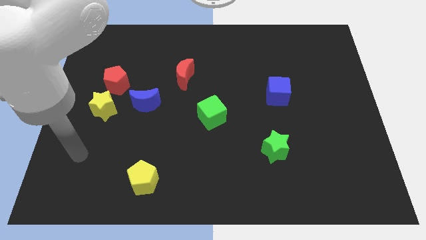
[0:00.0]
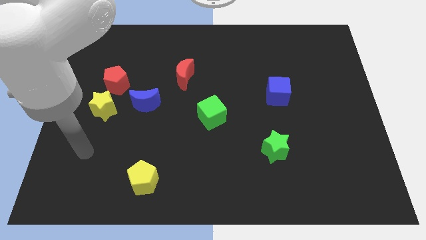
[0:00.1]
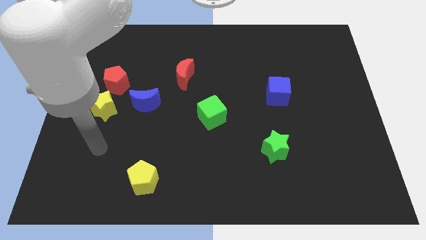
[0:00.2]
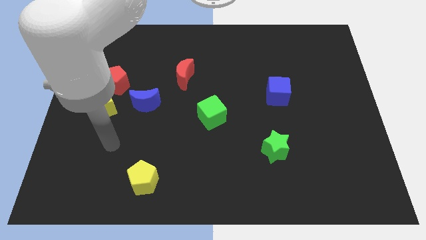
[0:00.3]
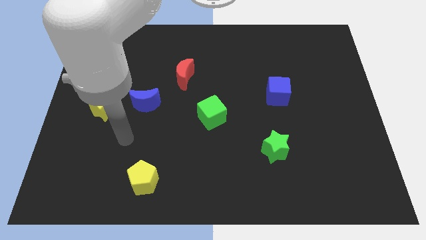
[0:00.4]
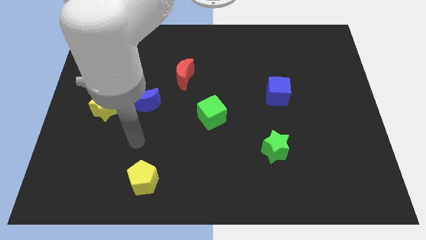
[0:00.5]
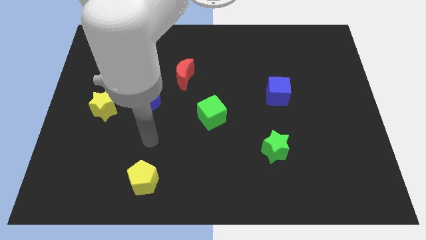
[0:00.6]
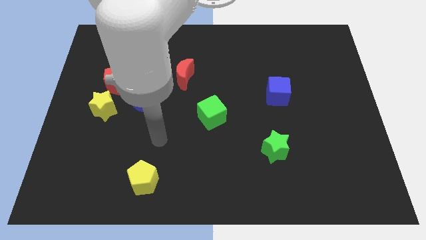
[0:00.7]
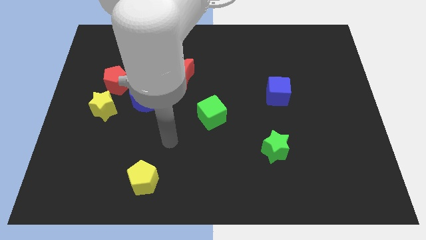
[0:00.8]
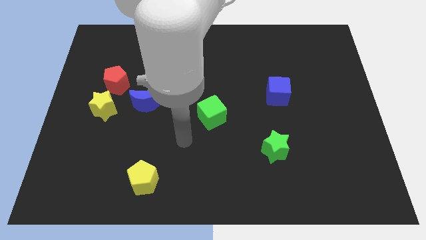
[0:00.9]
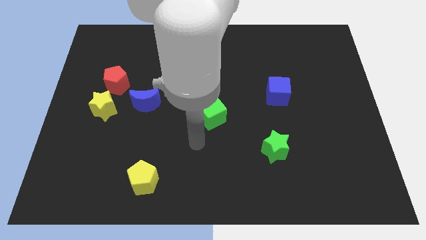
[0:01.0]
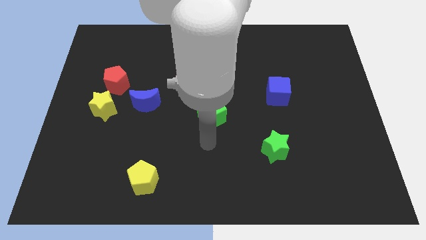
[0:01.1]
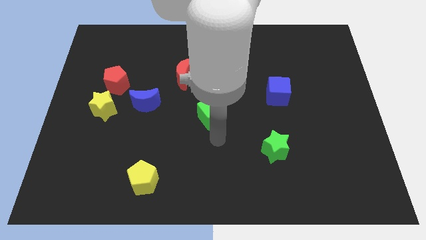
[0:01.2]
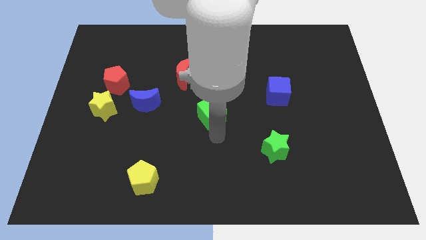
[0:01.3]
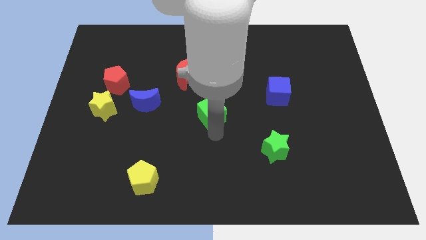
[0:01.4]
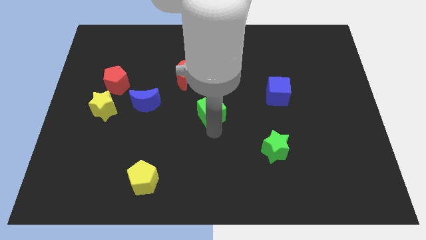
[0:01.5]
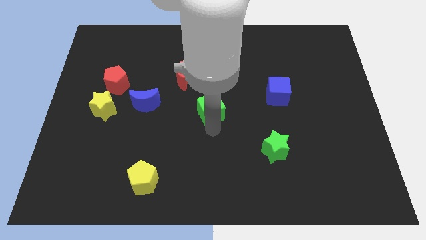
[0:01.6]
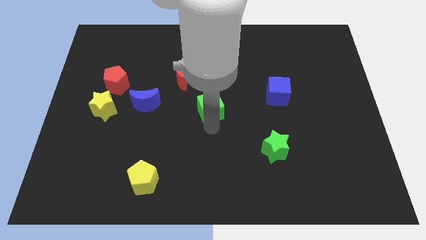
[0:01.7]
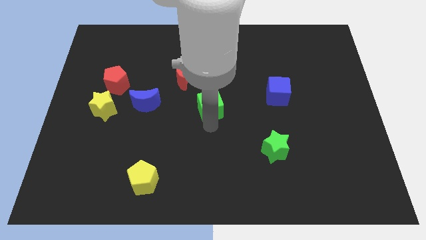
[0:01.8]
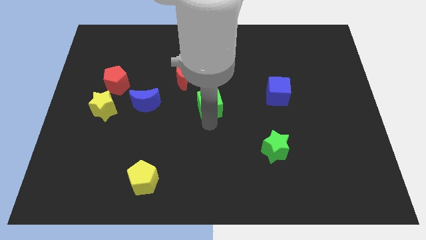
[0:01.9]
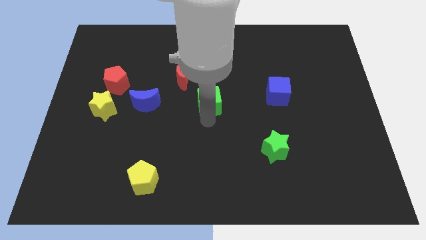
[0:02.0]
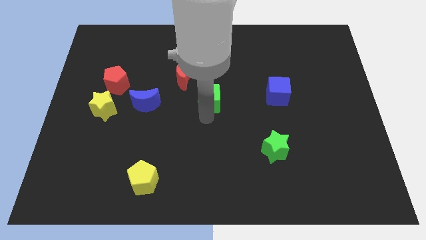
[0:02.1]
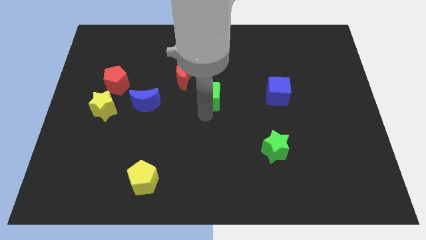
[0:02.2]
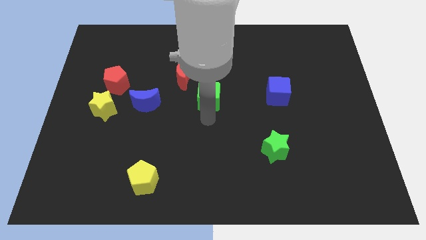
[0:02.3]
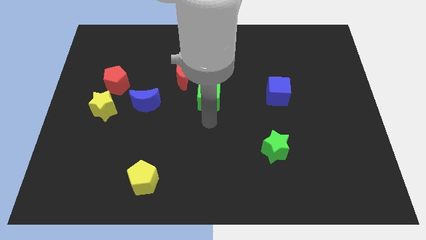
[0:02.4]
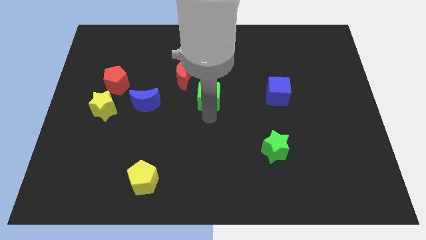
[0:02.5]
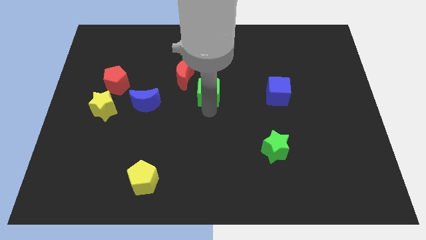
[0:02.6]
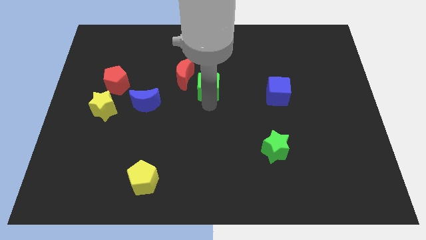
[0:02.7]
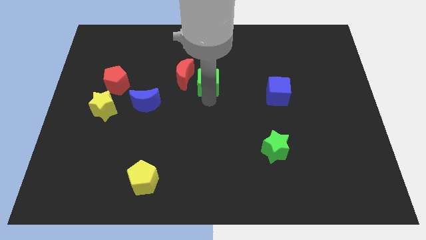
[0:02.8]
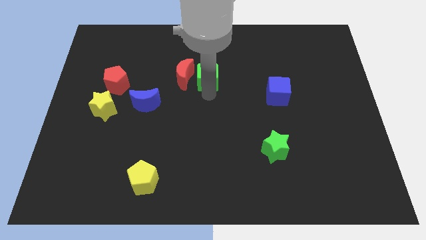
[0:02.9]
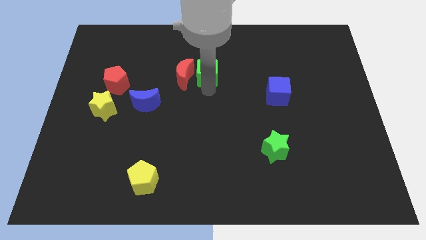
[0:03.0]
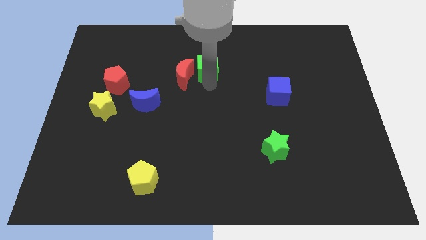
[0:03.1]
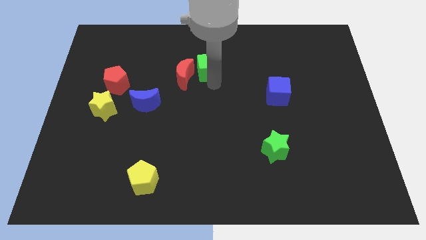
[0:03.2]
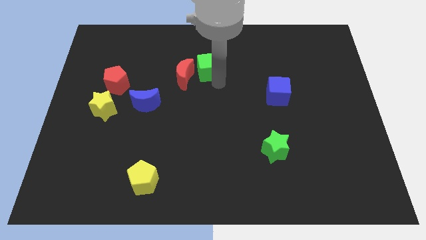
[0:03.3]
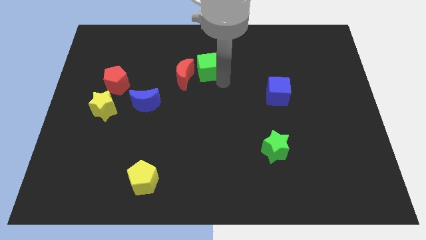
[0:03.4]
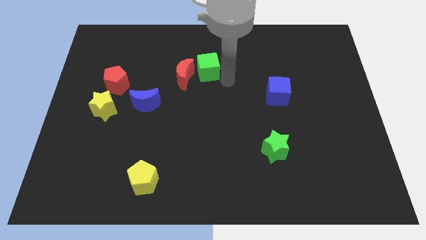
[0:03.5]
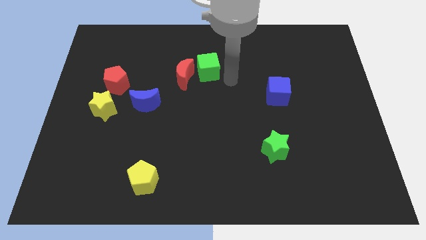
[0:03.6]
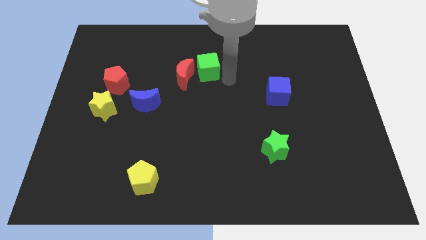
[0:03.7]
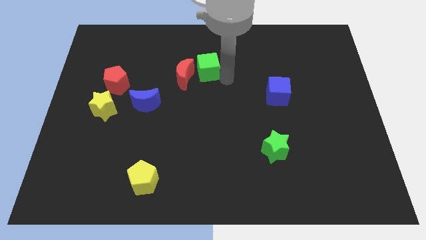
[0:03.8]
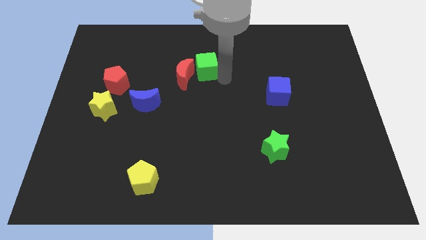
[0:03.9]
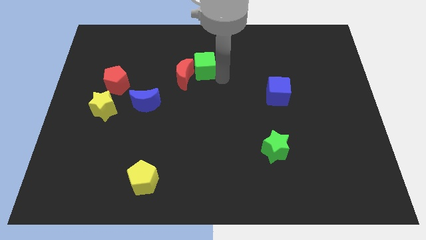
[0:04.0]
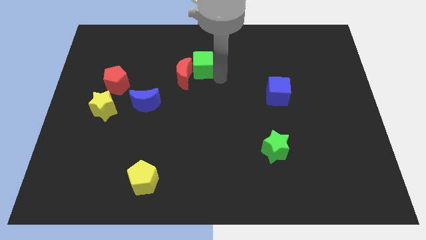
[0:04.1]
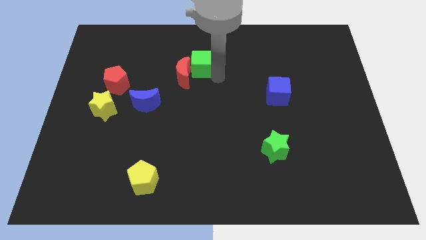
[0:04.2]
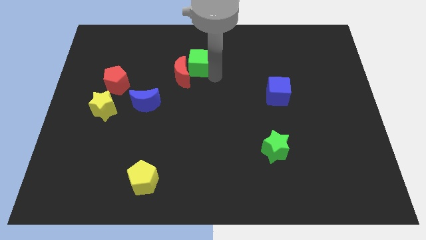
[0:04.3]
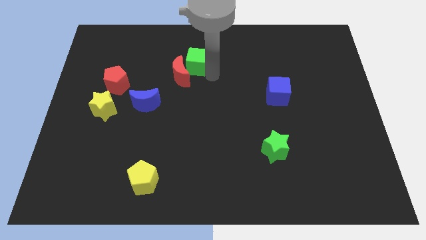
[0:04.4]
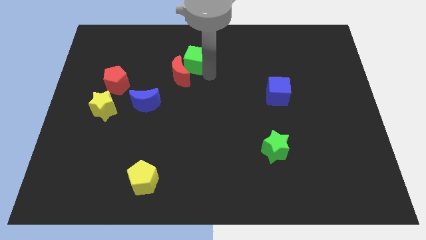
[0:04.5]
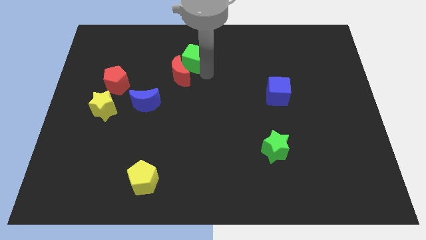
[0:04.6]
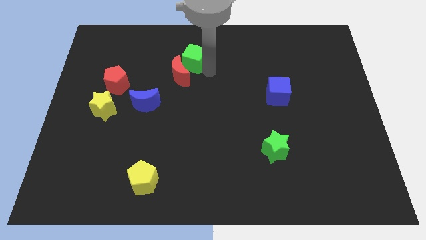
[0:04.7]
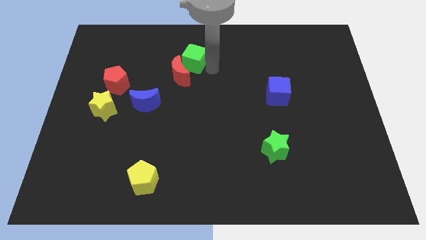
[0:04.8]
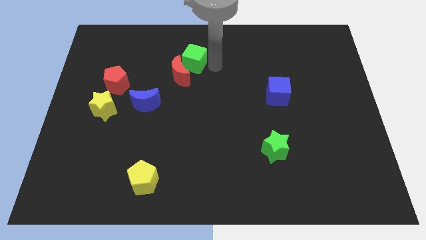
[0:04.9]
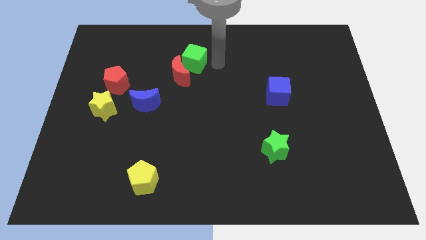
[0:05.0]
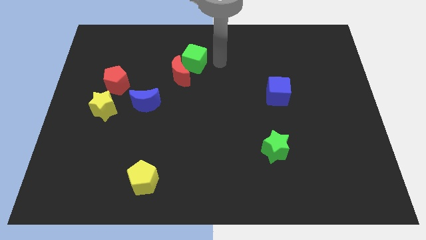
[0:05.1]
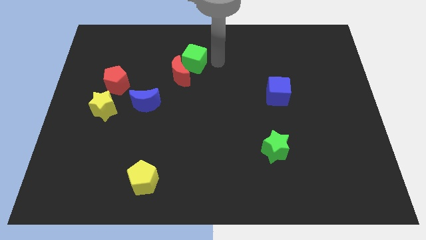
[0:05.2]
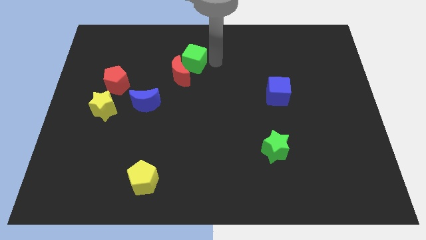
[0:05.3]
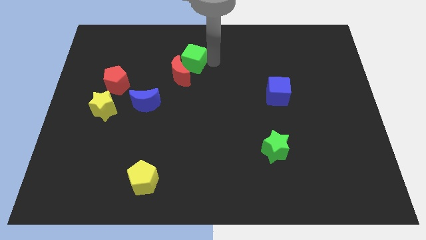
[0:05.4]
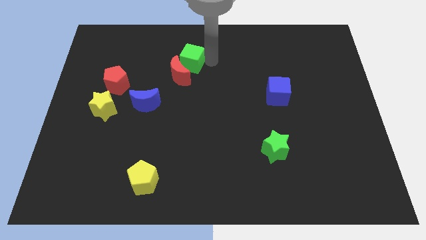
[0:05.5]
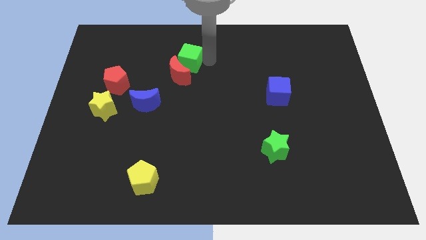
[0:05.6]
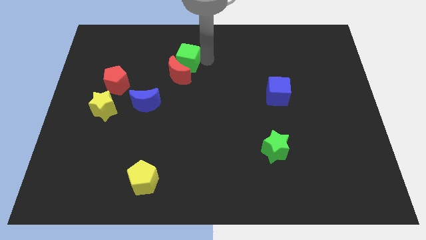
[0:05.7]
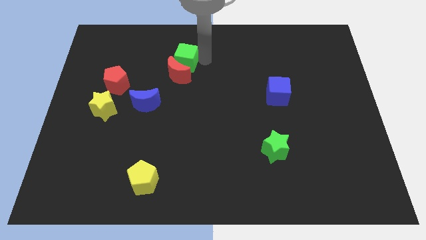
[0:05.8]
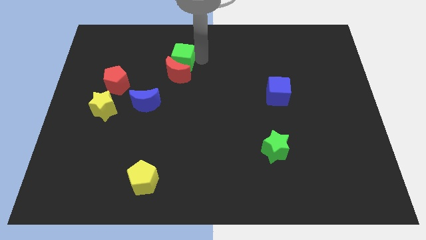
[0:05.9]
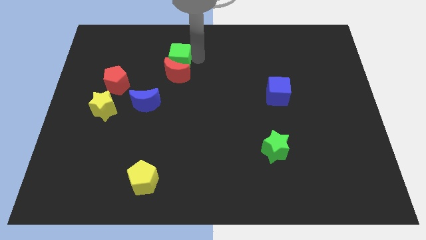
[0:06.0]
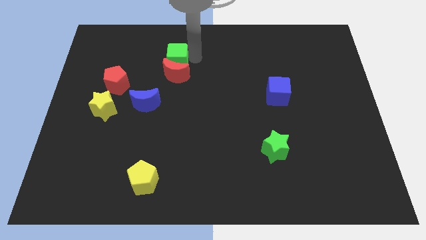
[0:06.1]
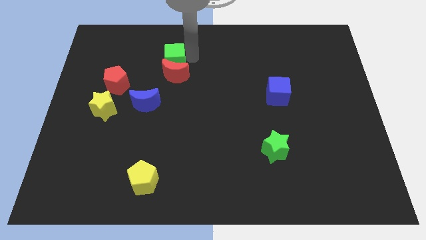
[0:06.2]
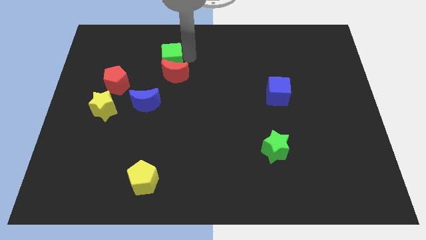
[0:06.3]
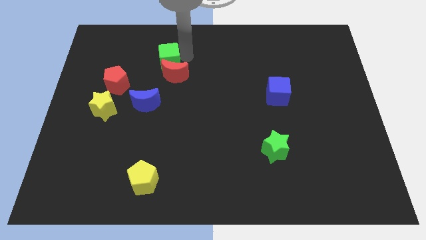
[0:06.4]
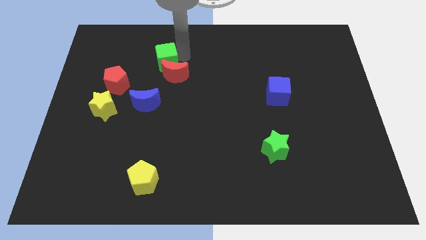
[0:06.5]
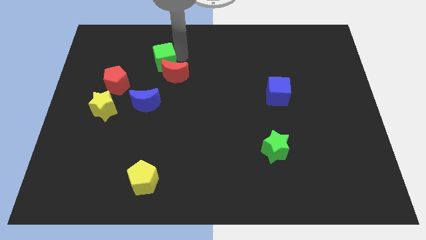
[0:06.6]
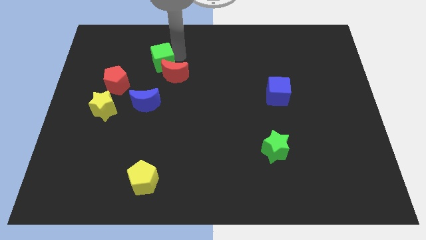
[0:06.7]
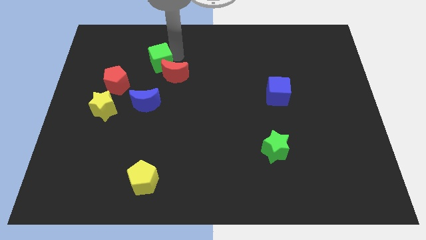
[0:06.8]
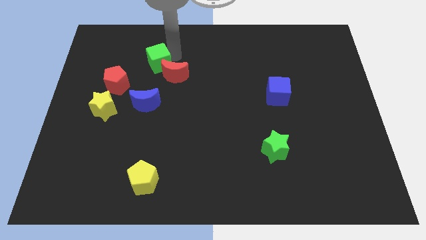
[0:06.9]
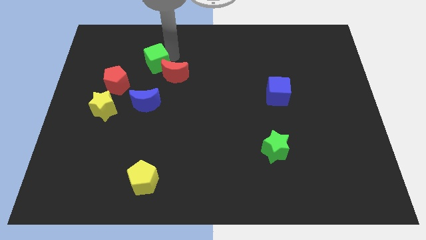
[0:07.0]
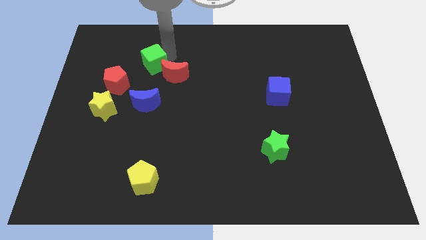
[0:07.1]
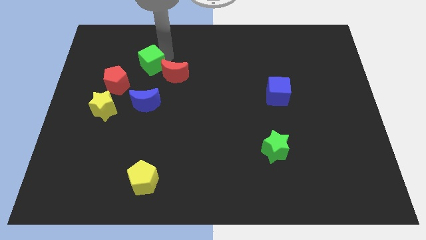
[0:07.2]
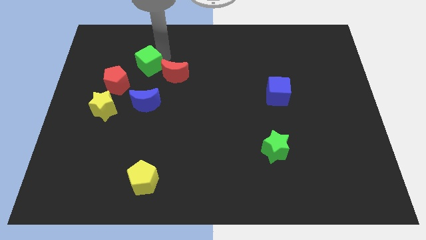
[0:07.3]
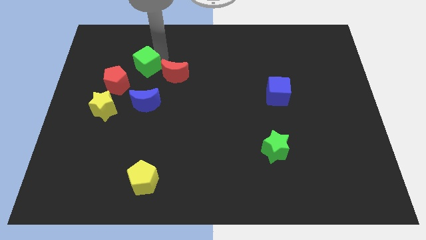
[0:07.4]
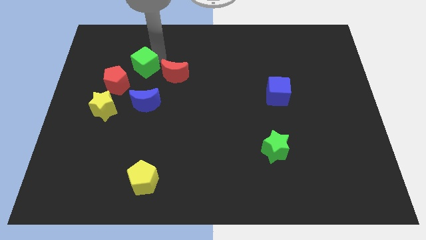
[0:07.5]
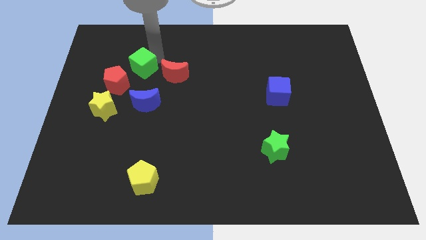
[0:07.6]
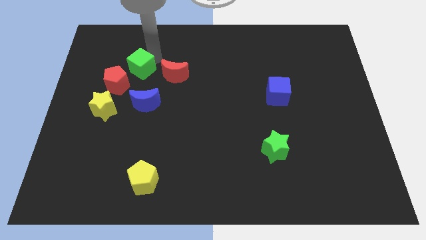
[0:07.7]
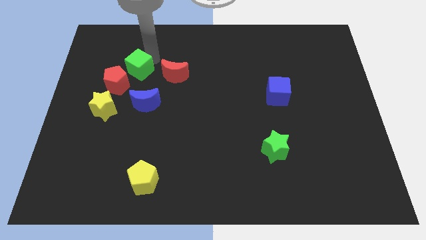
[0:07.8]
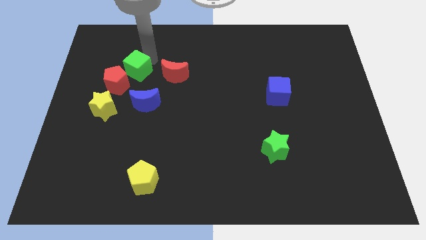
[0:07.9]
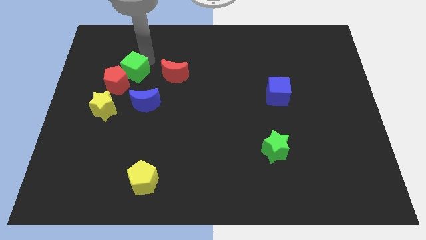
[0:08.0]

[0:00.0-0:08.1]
slide the green cube close to the red pentagon
